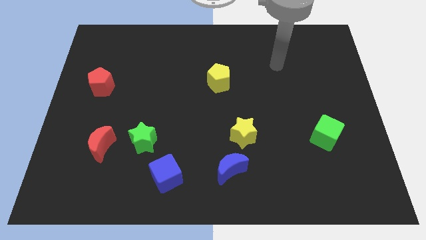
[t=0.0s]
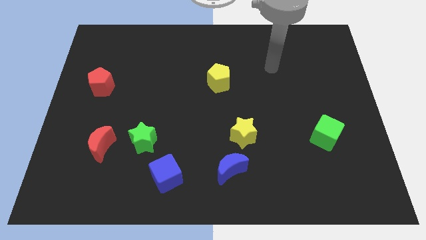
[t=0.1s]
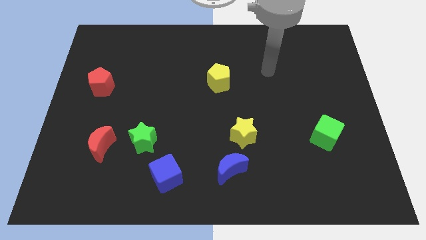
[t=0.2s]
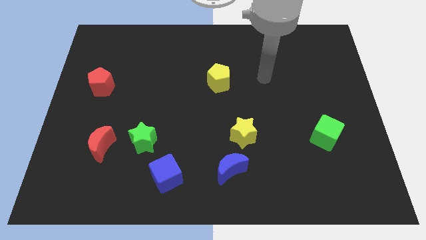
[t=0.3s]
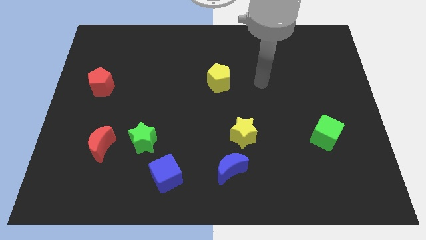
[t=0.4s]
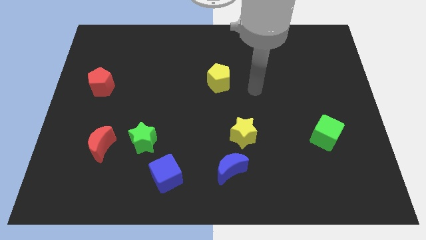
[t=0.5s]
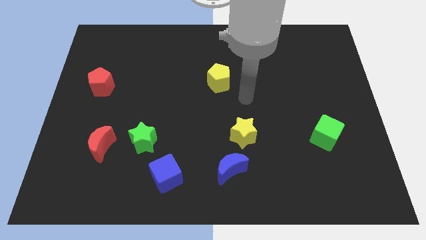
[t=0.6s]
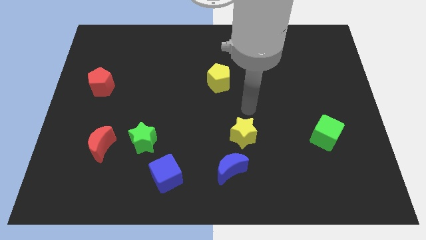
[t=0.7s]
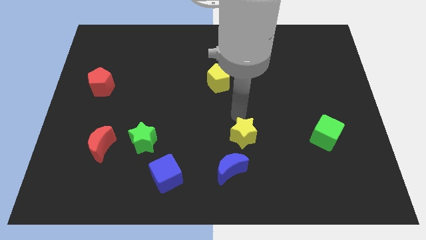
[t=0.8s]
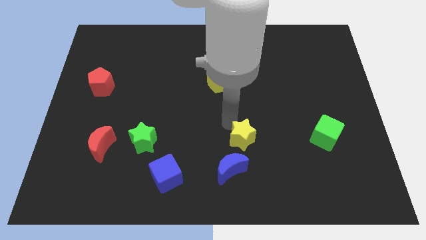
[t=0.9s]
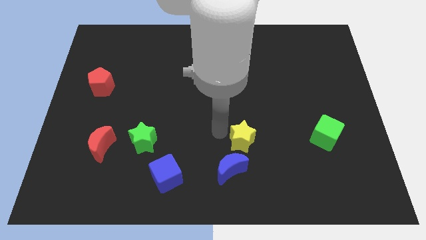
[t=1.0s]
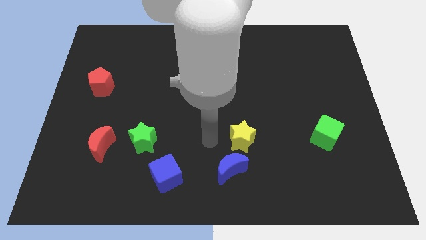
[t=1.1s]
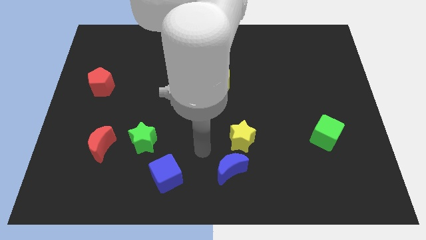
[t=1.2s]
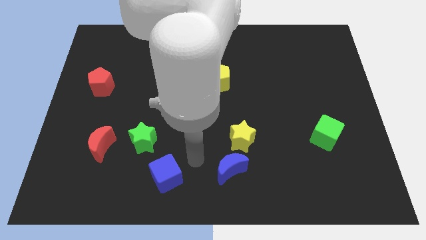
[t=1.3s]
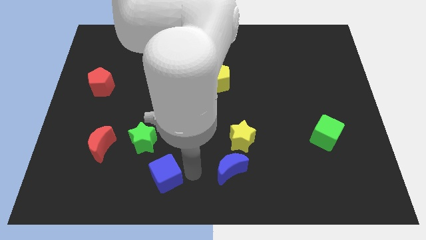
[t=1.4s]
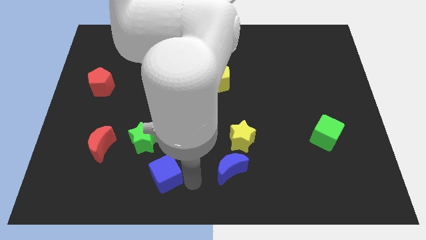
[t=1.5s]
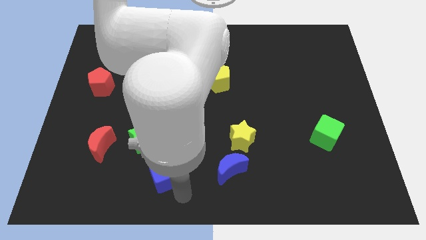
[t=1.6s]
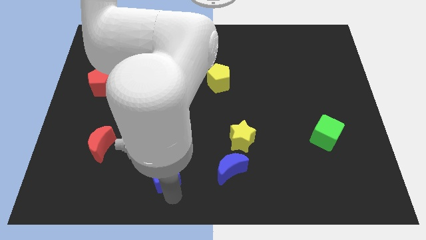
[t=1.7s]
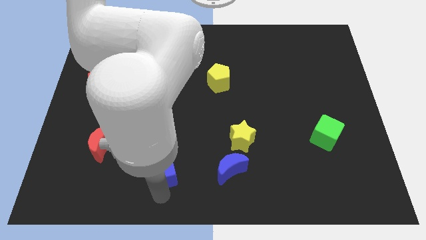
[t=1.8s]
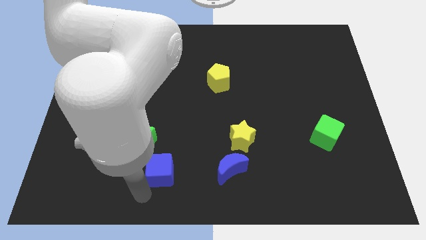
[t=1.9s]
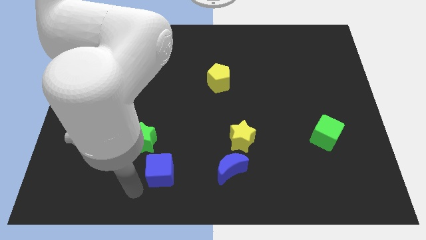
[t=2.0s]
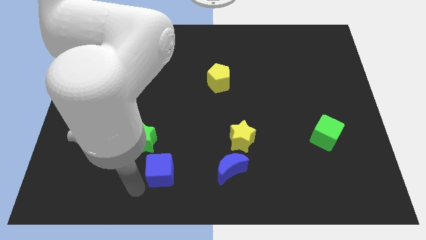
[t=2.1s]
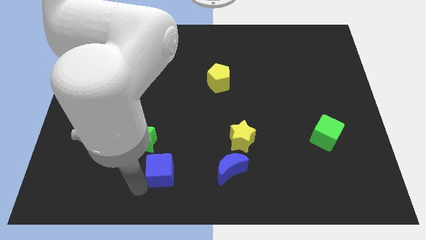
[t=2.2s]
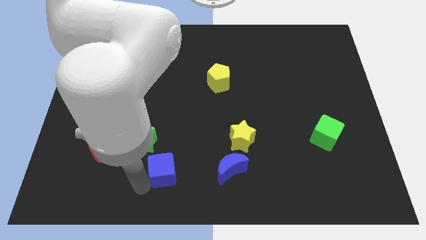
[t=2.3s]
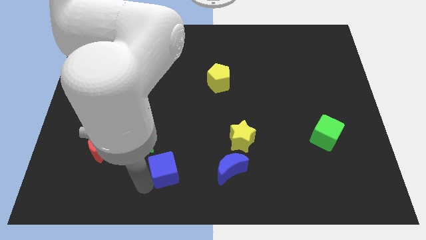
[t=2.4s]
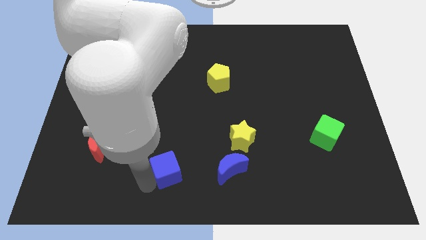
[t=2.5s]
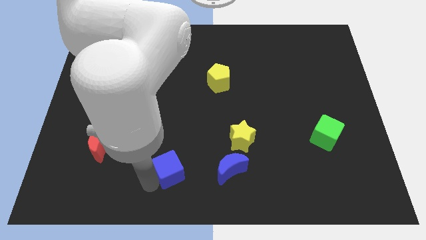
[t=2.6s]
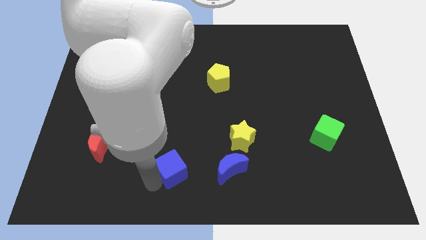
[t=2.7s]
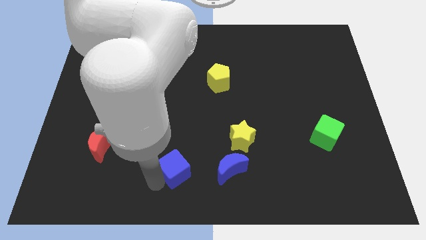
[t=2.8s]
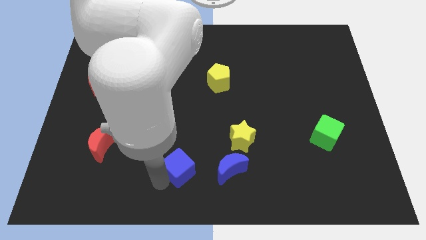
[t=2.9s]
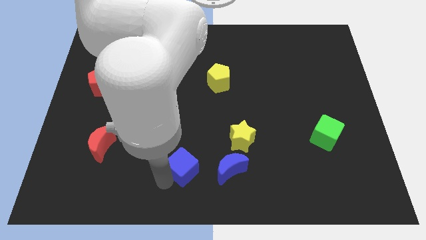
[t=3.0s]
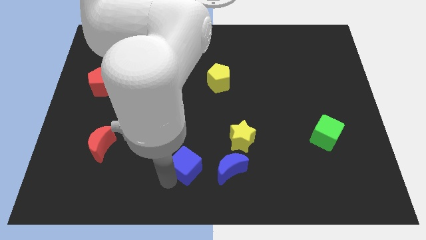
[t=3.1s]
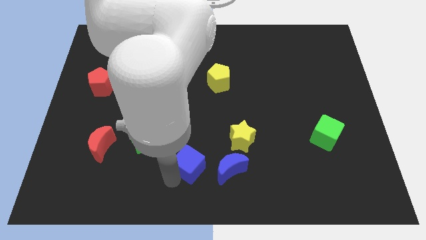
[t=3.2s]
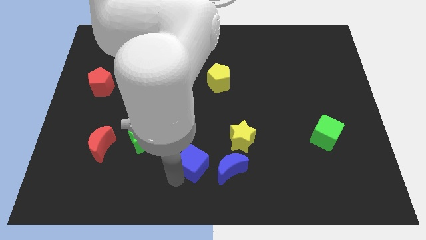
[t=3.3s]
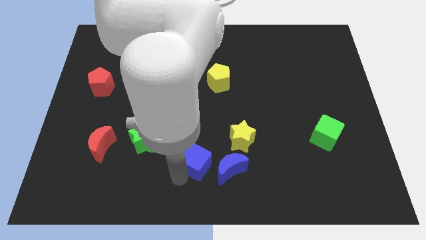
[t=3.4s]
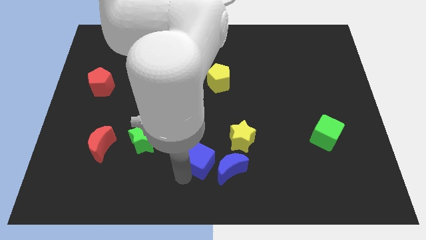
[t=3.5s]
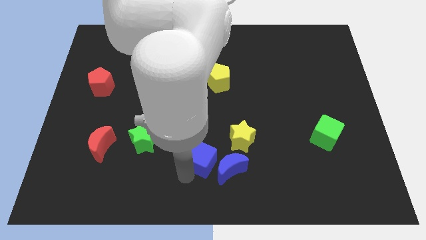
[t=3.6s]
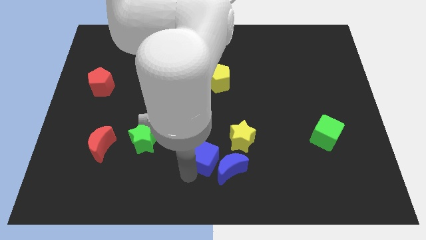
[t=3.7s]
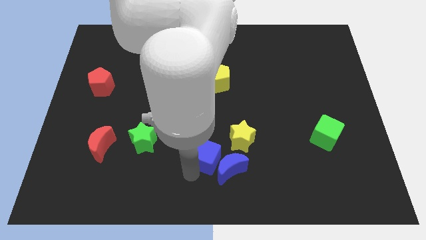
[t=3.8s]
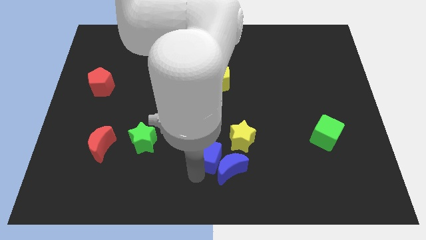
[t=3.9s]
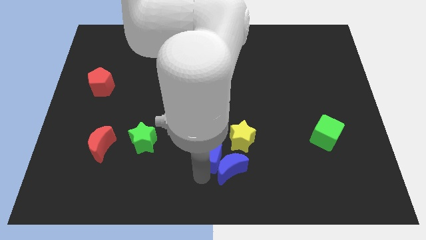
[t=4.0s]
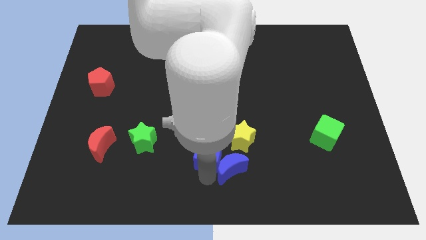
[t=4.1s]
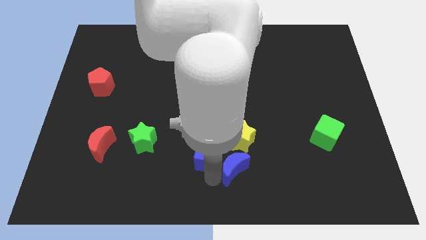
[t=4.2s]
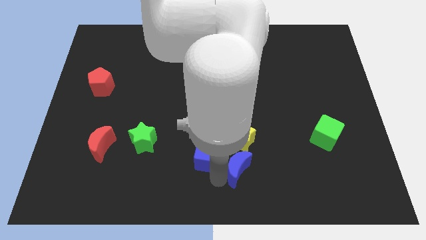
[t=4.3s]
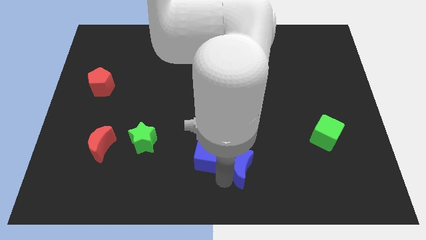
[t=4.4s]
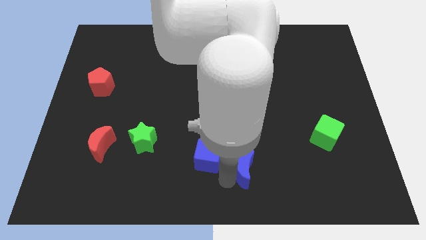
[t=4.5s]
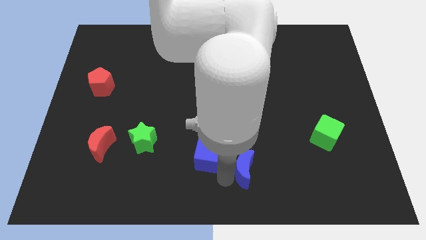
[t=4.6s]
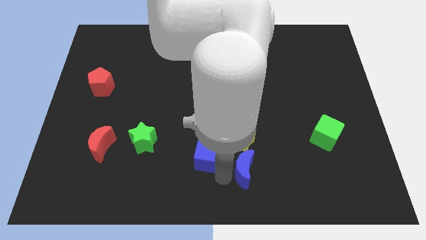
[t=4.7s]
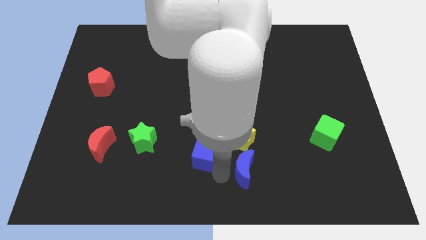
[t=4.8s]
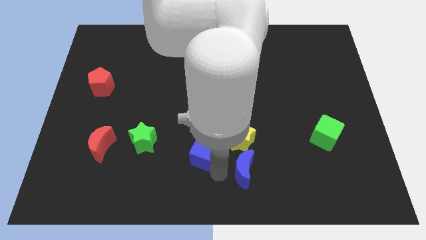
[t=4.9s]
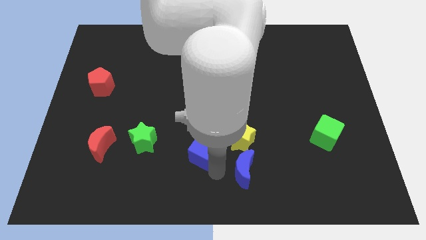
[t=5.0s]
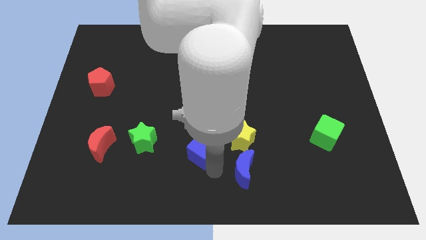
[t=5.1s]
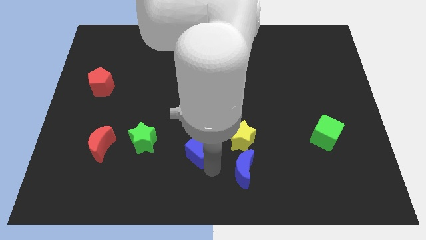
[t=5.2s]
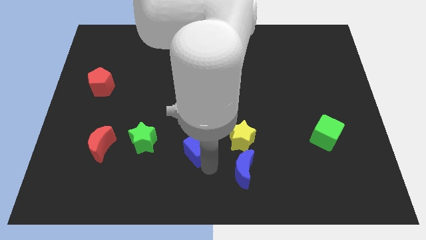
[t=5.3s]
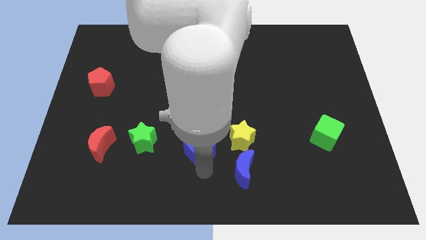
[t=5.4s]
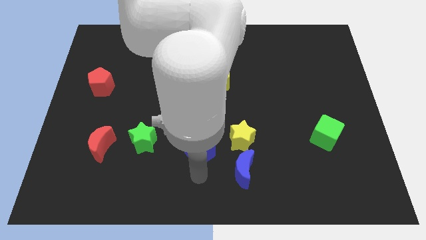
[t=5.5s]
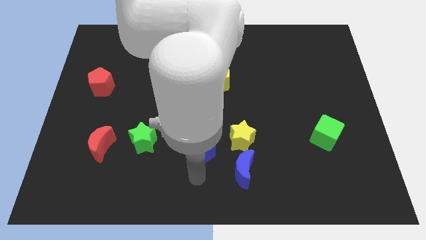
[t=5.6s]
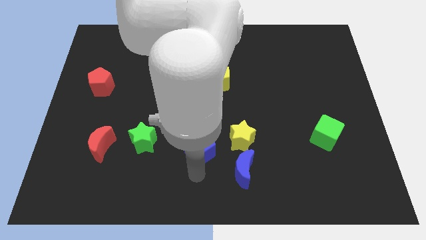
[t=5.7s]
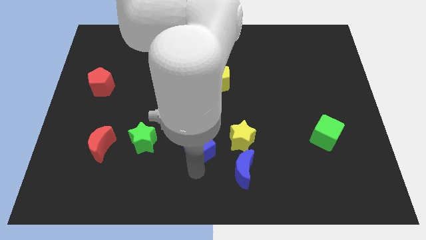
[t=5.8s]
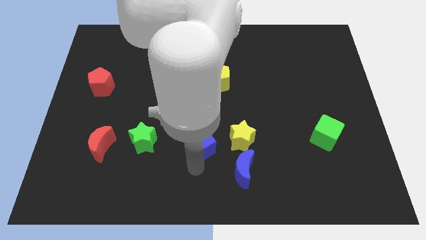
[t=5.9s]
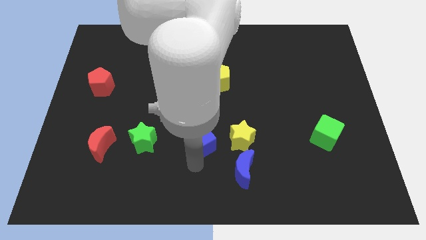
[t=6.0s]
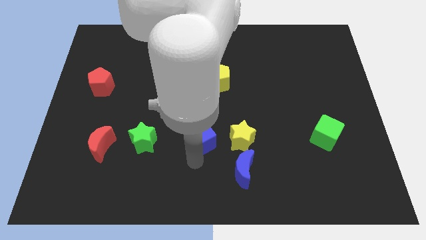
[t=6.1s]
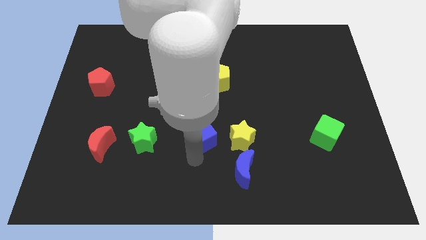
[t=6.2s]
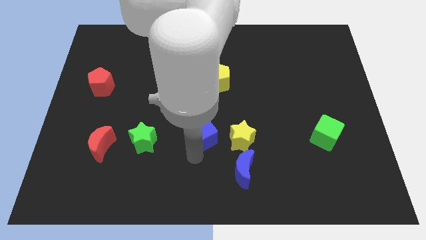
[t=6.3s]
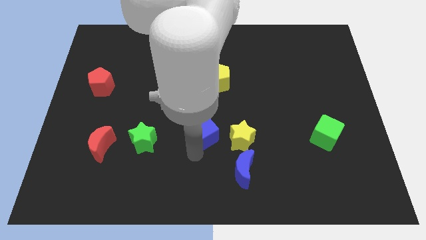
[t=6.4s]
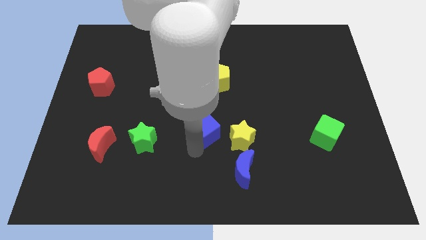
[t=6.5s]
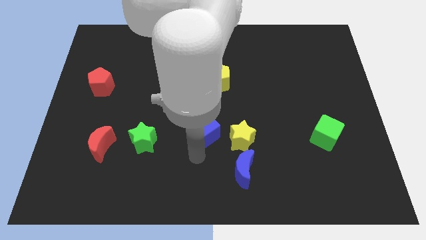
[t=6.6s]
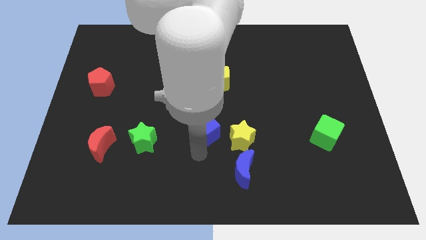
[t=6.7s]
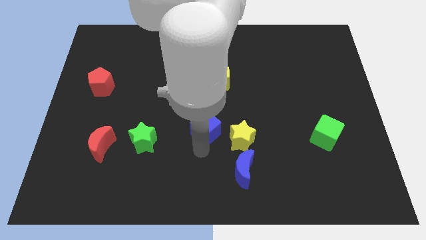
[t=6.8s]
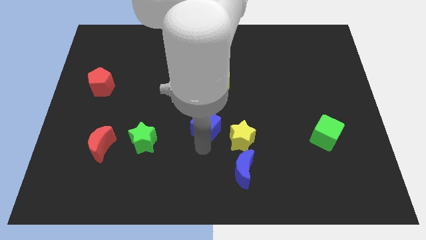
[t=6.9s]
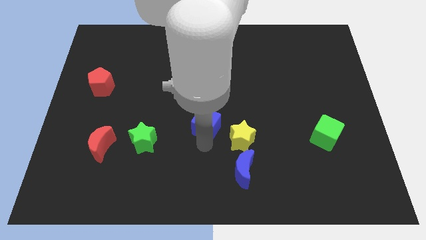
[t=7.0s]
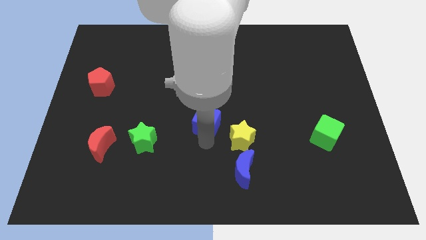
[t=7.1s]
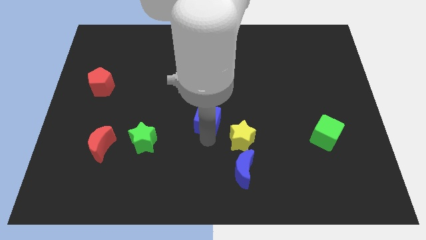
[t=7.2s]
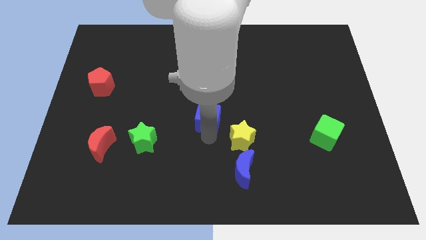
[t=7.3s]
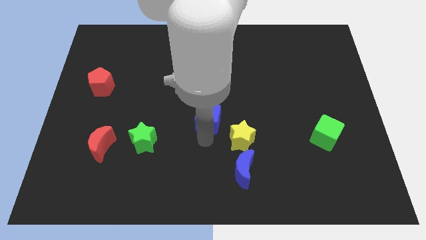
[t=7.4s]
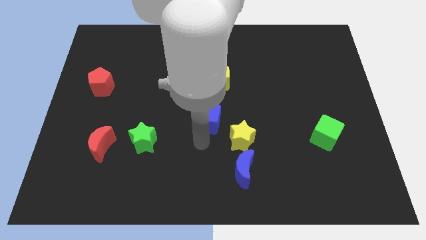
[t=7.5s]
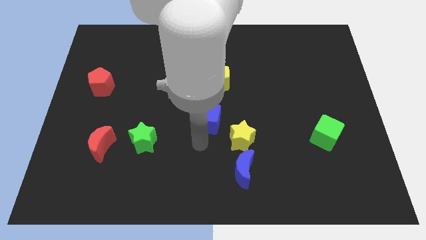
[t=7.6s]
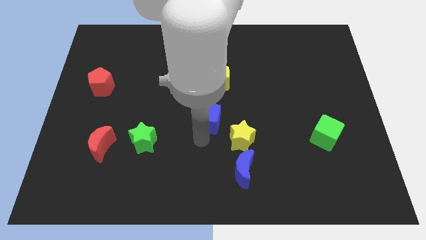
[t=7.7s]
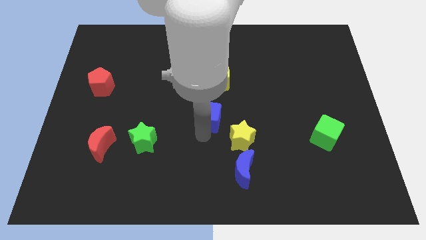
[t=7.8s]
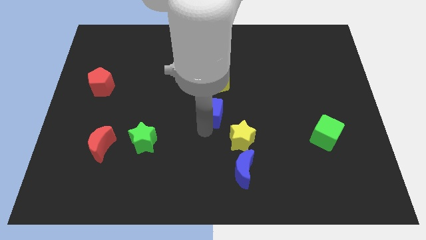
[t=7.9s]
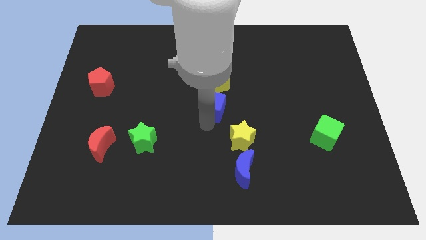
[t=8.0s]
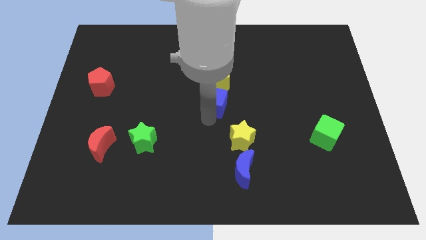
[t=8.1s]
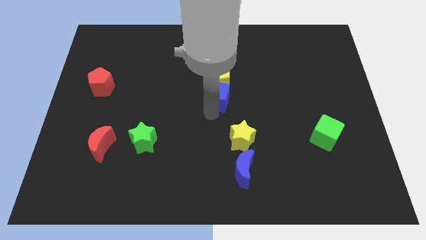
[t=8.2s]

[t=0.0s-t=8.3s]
move the blue cube towards the yellow pentagon
